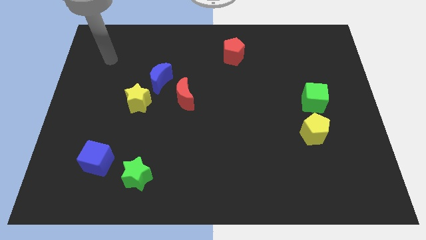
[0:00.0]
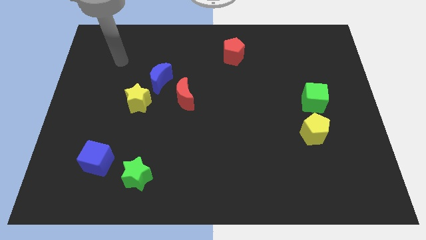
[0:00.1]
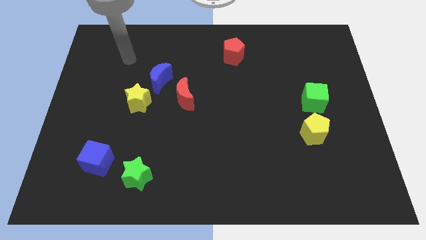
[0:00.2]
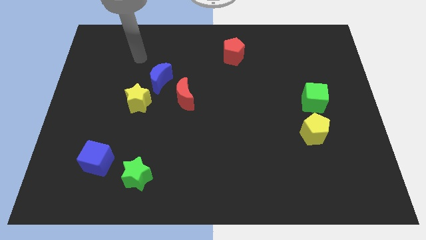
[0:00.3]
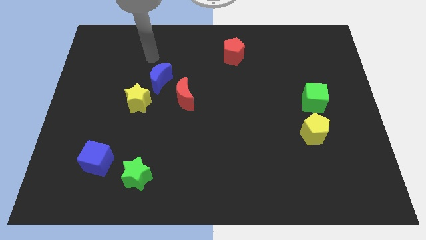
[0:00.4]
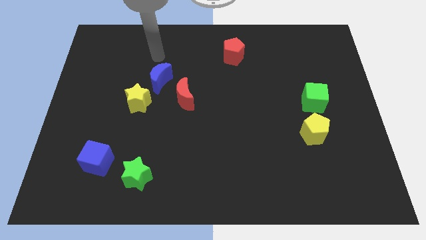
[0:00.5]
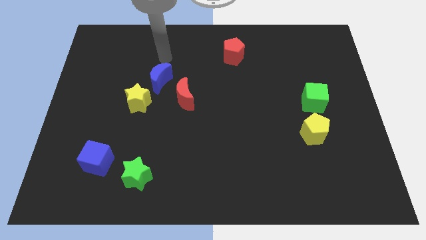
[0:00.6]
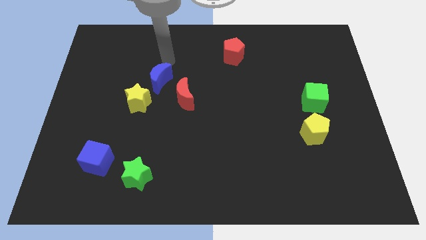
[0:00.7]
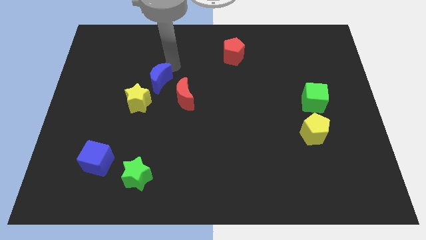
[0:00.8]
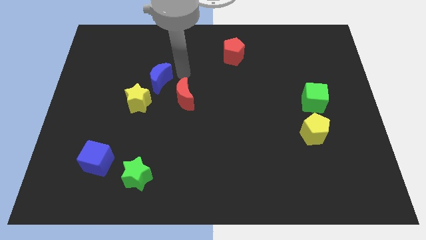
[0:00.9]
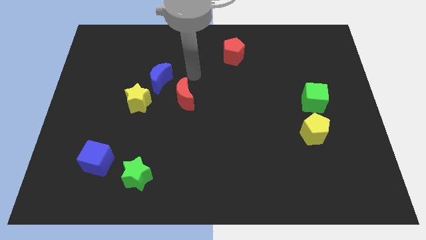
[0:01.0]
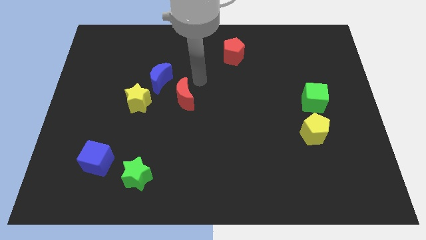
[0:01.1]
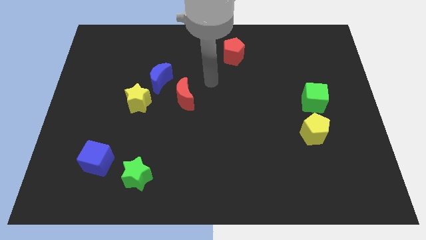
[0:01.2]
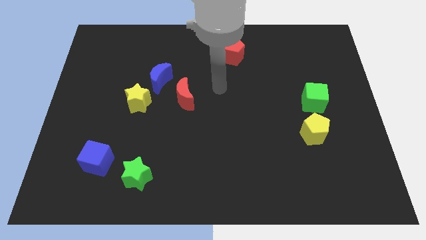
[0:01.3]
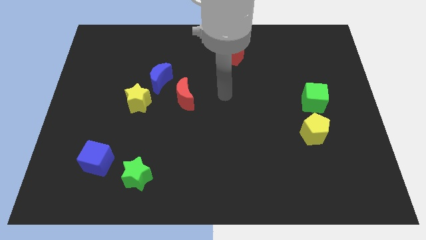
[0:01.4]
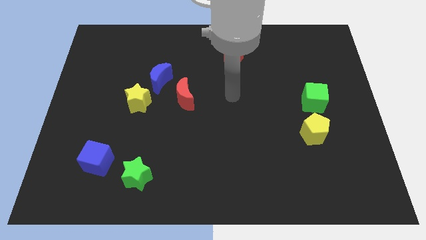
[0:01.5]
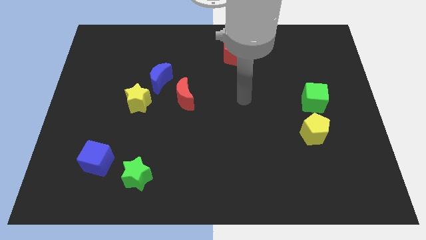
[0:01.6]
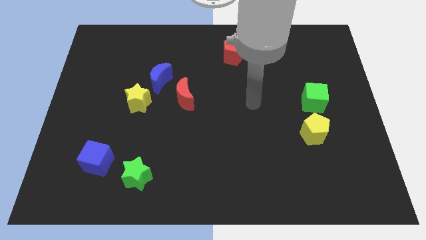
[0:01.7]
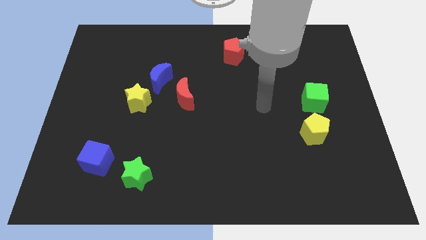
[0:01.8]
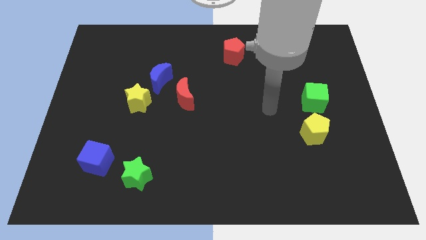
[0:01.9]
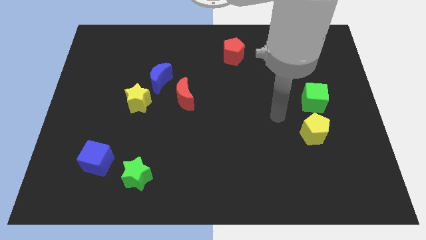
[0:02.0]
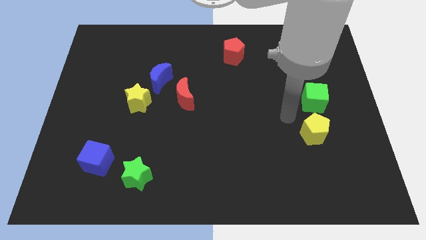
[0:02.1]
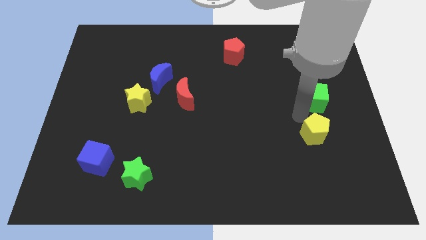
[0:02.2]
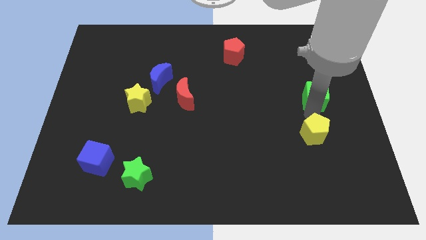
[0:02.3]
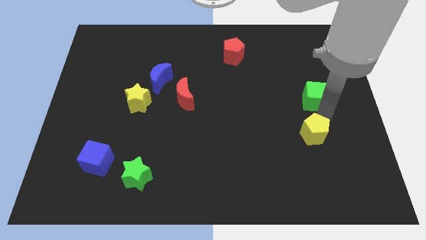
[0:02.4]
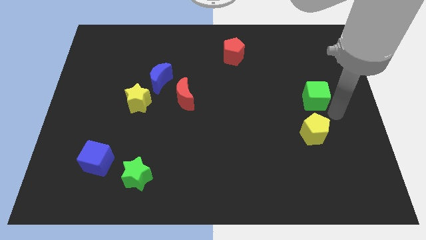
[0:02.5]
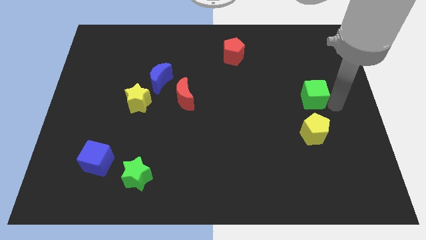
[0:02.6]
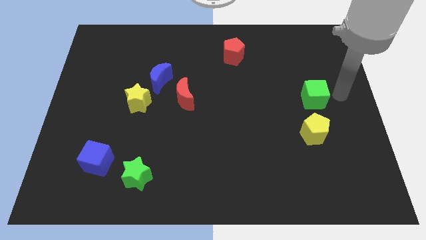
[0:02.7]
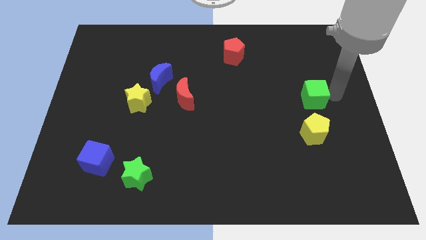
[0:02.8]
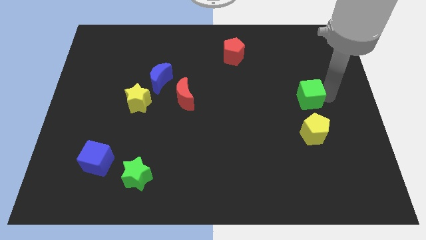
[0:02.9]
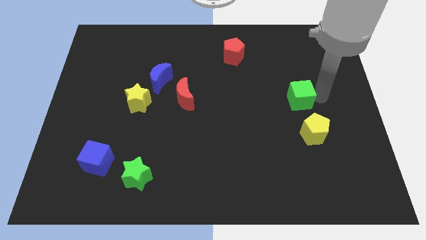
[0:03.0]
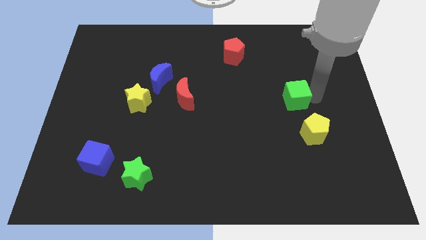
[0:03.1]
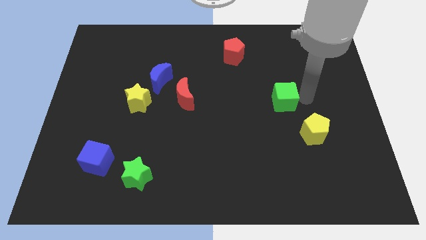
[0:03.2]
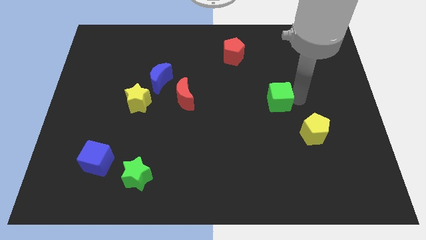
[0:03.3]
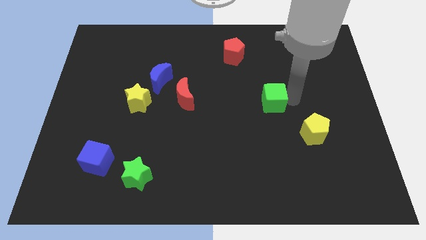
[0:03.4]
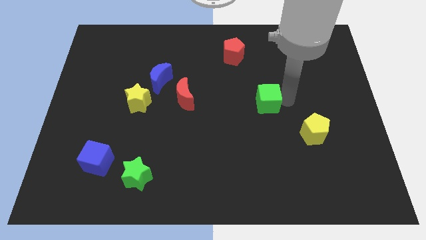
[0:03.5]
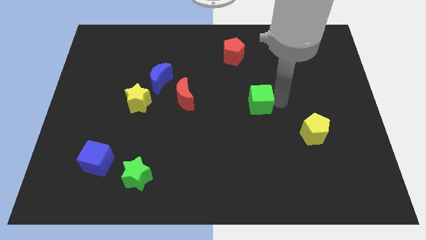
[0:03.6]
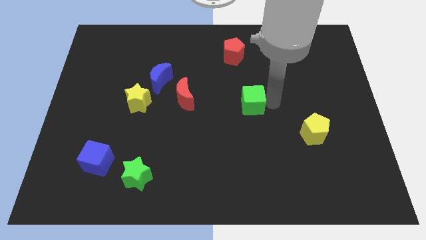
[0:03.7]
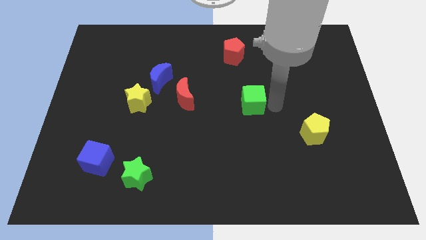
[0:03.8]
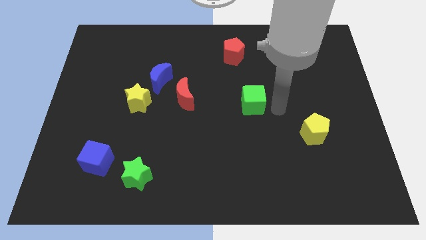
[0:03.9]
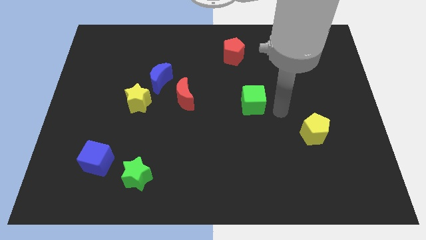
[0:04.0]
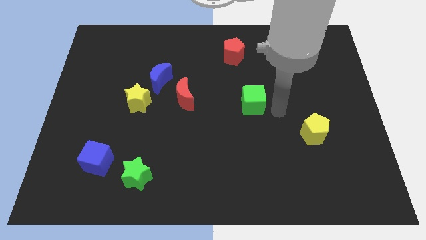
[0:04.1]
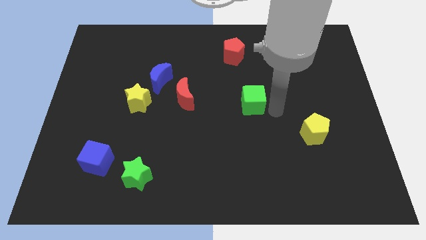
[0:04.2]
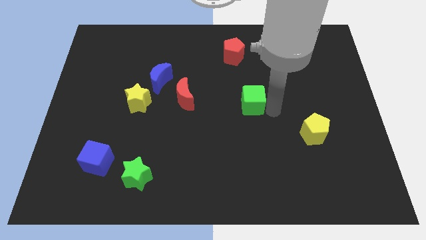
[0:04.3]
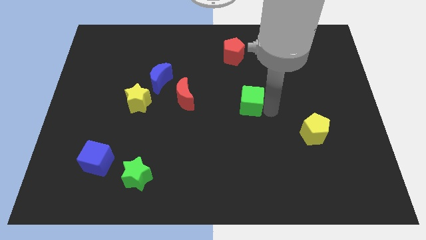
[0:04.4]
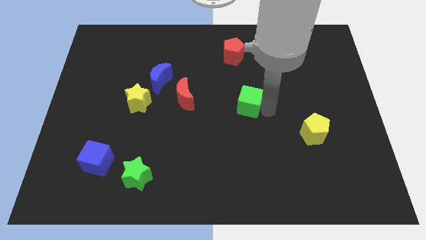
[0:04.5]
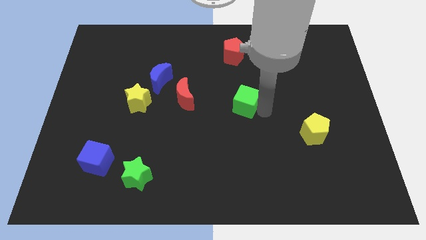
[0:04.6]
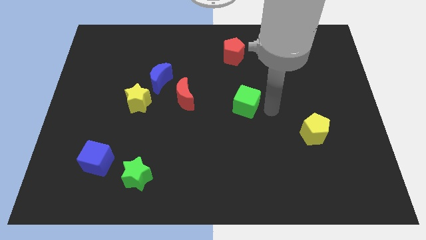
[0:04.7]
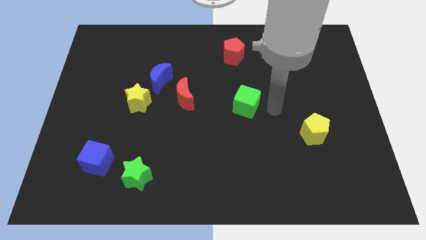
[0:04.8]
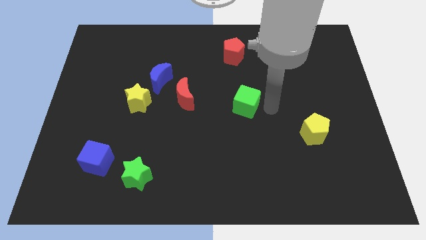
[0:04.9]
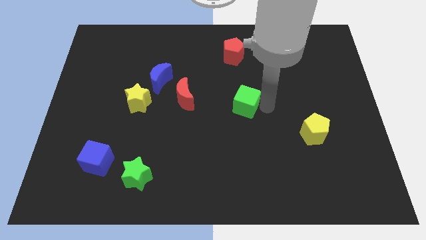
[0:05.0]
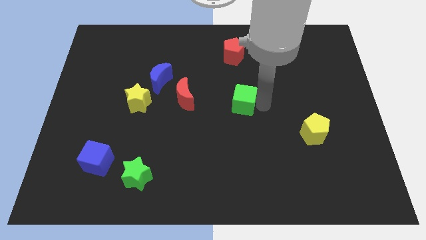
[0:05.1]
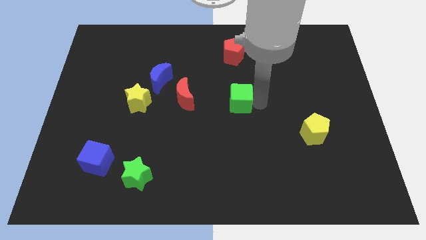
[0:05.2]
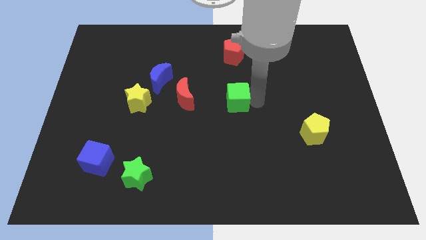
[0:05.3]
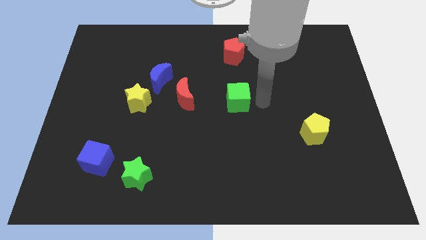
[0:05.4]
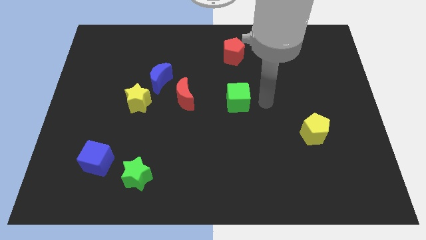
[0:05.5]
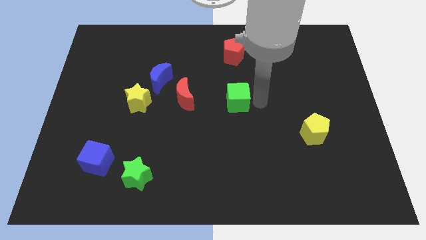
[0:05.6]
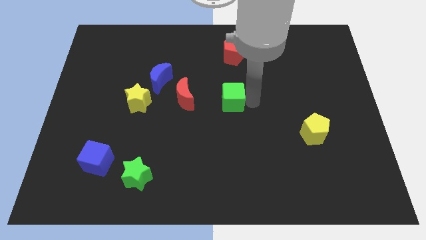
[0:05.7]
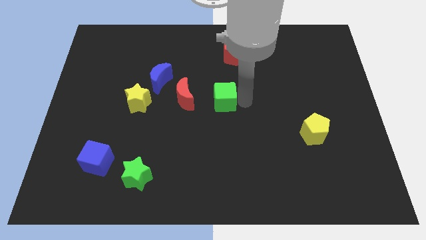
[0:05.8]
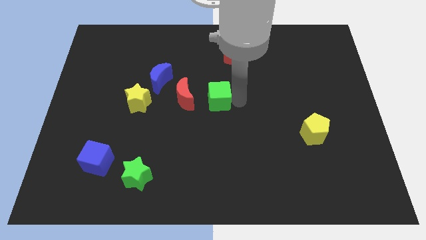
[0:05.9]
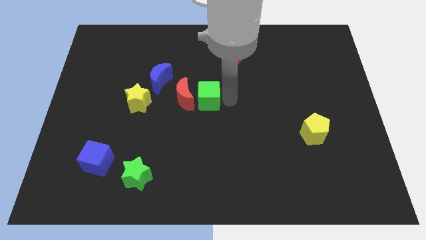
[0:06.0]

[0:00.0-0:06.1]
push the green cube towards the red moon

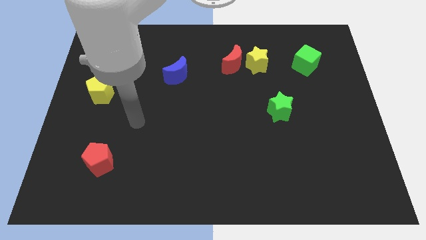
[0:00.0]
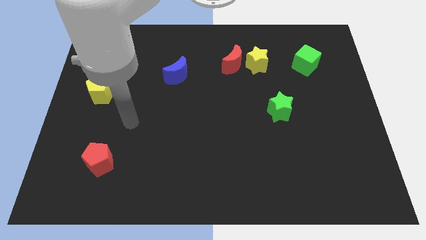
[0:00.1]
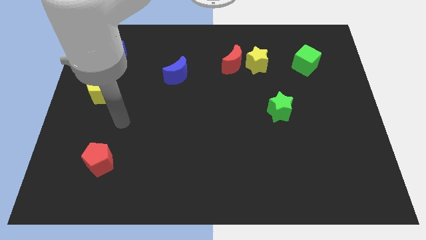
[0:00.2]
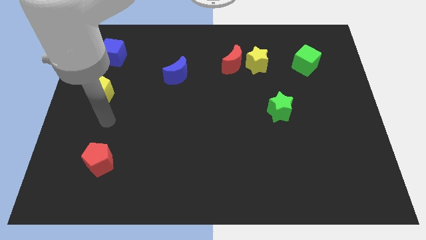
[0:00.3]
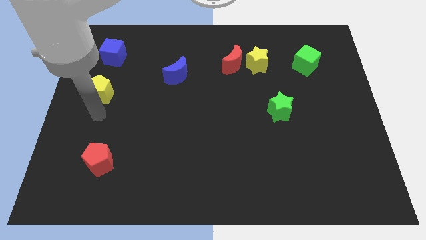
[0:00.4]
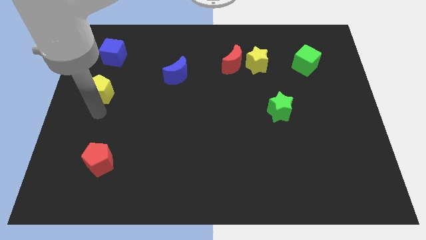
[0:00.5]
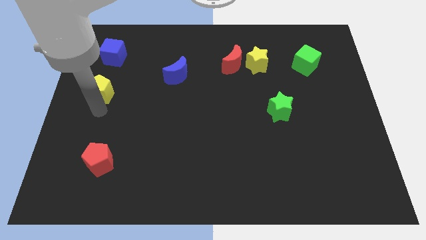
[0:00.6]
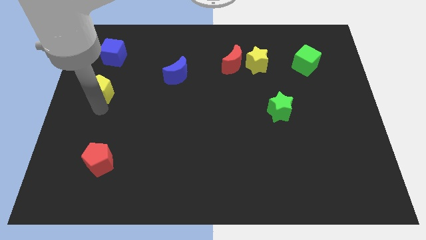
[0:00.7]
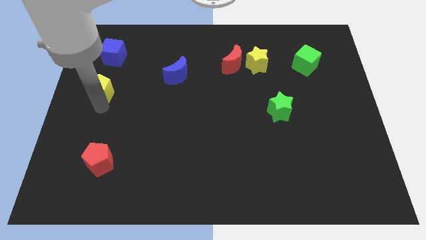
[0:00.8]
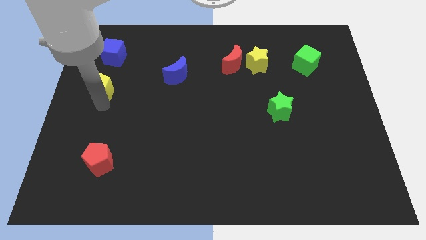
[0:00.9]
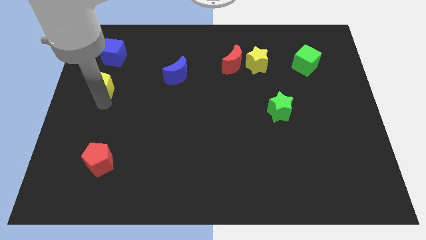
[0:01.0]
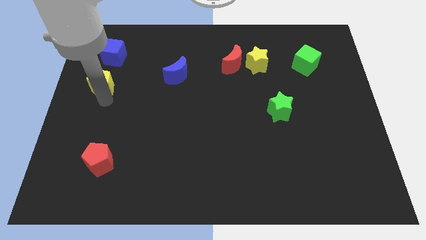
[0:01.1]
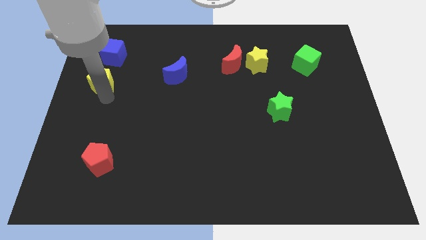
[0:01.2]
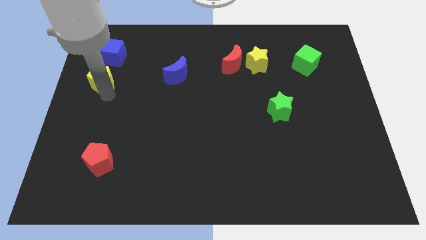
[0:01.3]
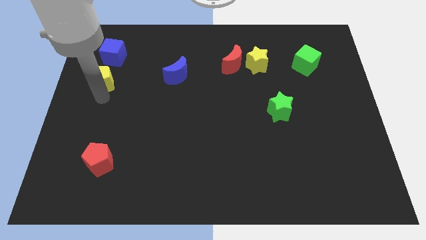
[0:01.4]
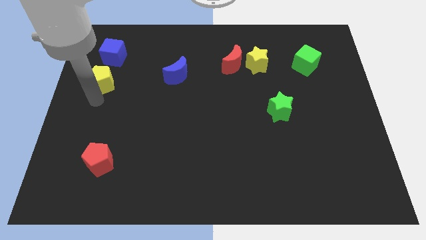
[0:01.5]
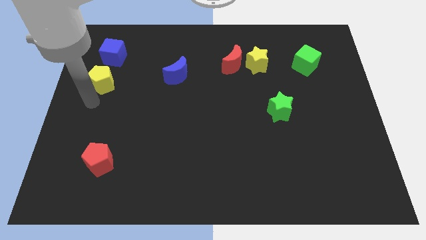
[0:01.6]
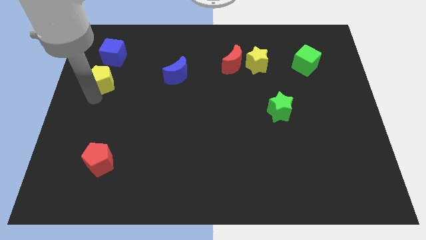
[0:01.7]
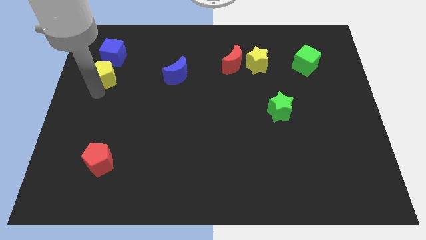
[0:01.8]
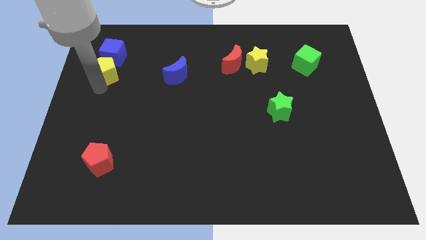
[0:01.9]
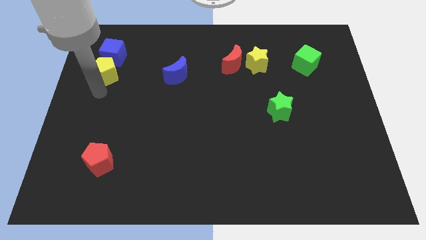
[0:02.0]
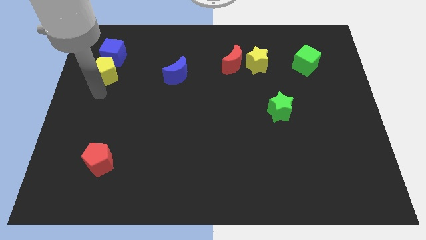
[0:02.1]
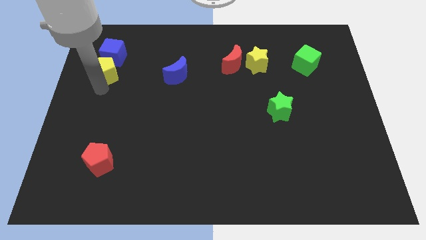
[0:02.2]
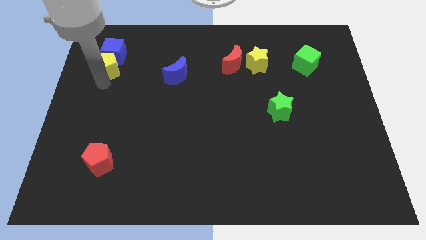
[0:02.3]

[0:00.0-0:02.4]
push the yellow pentagon close to the blue cube
